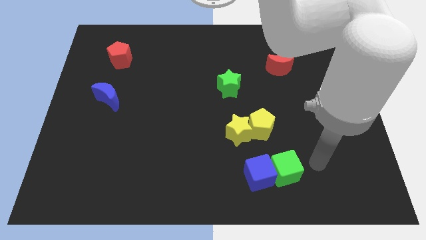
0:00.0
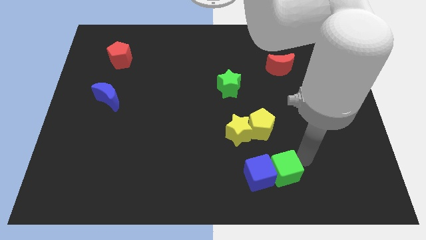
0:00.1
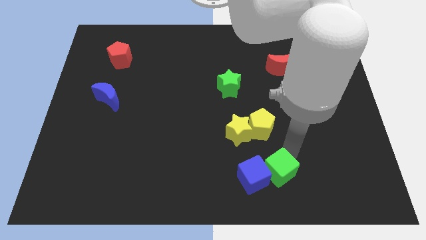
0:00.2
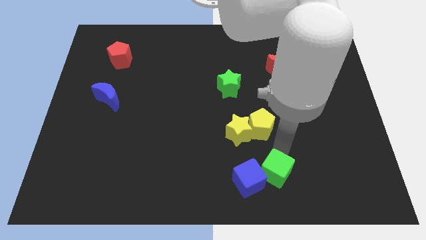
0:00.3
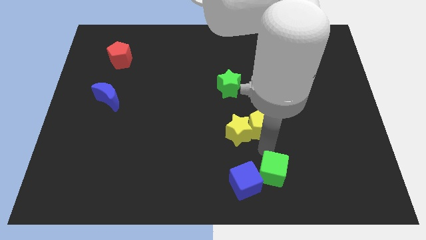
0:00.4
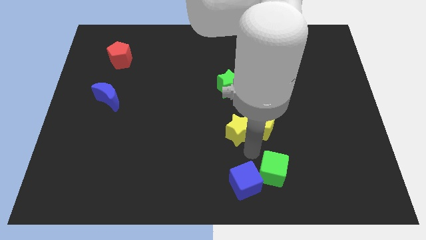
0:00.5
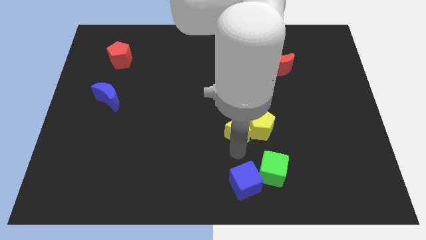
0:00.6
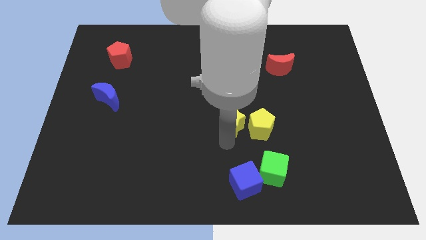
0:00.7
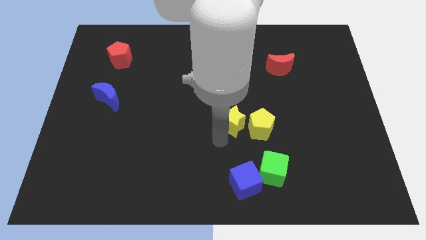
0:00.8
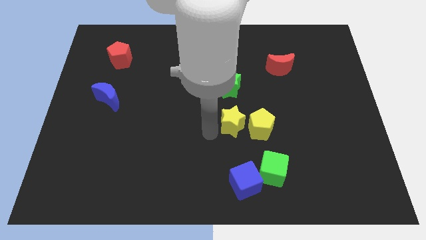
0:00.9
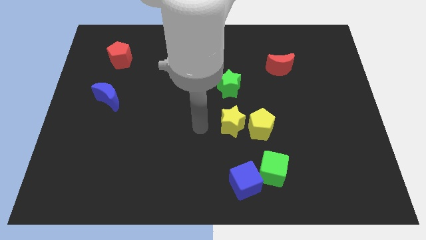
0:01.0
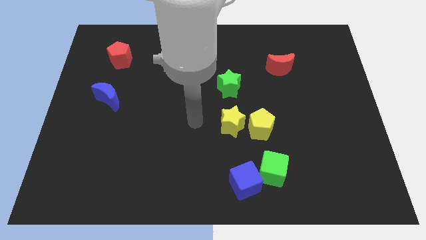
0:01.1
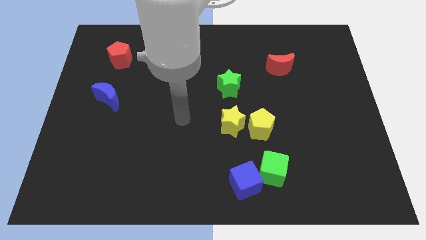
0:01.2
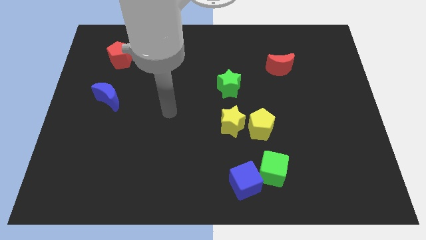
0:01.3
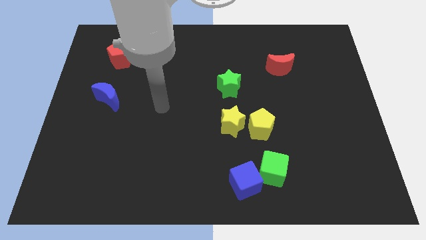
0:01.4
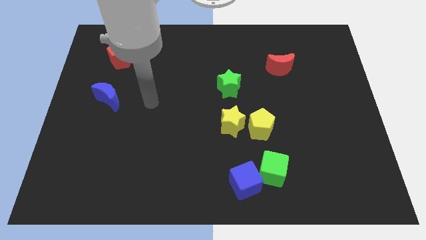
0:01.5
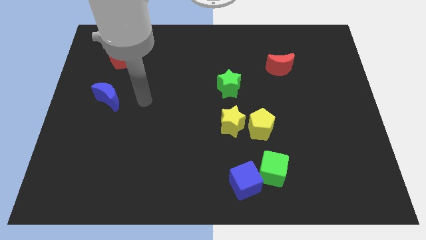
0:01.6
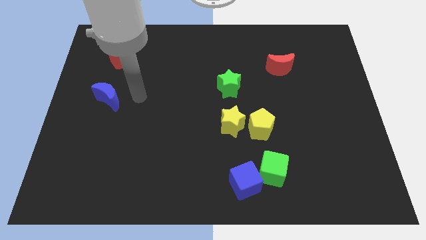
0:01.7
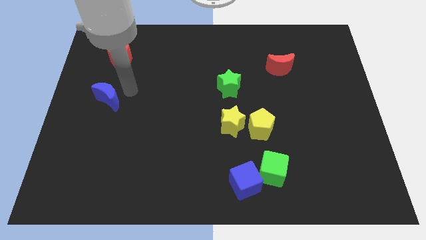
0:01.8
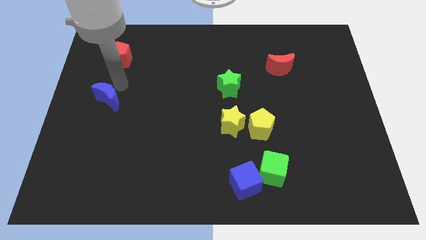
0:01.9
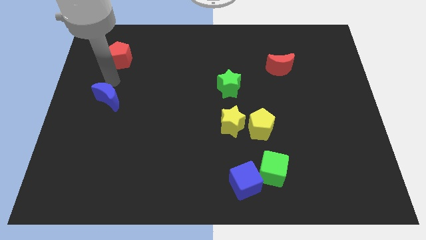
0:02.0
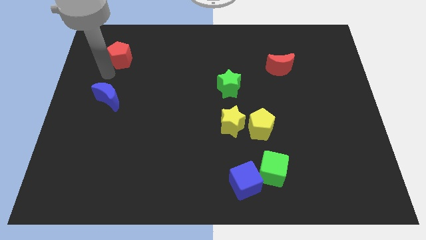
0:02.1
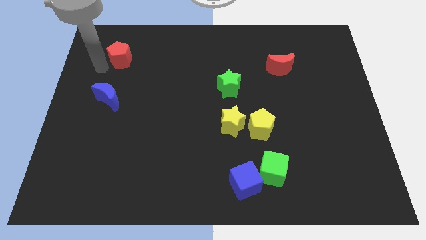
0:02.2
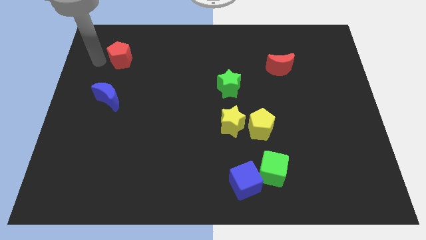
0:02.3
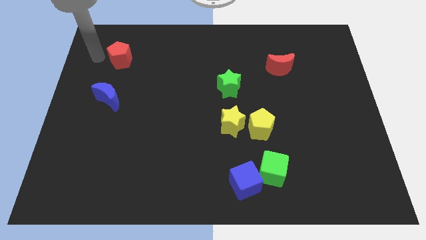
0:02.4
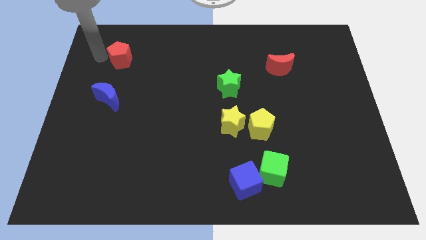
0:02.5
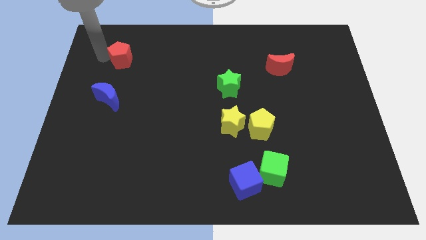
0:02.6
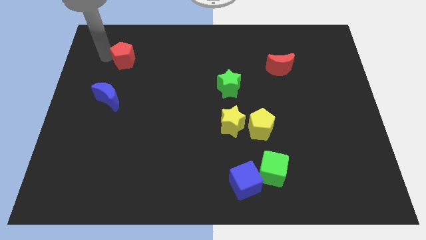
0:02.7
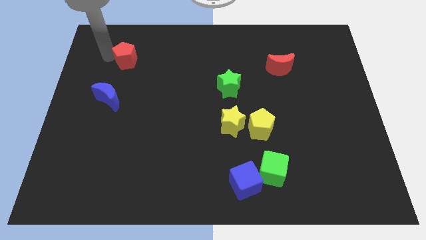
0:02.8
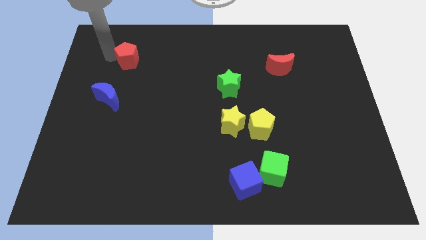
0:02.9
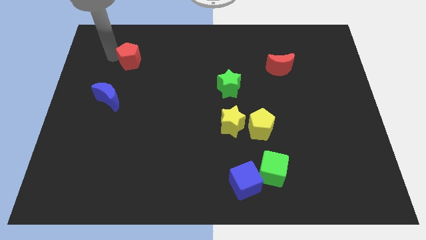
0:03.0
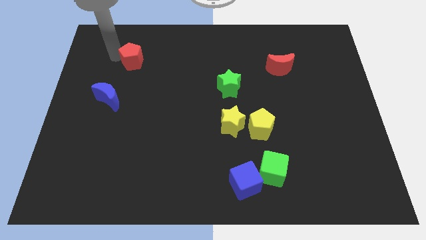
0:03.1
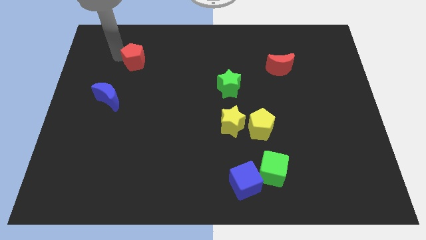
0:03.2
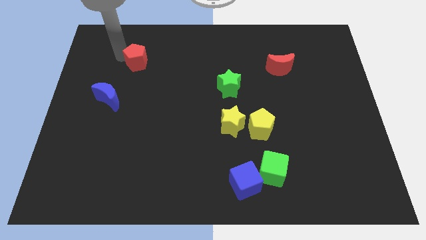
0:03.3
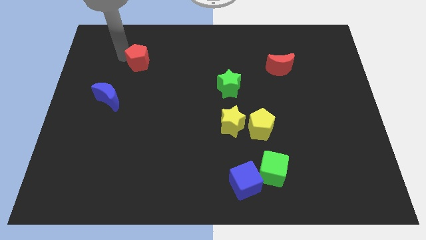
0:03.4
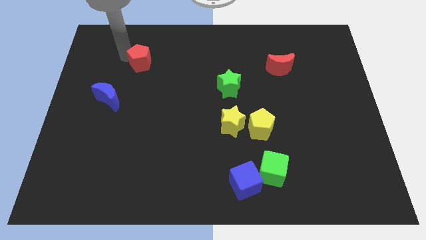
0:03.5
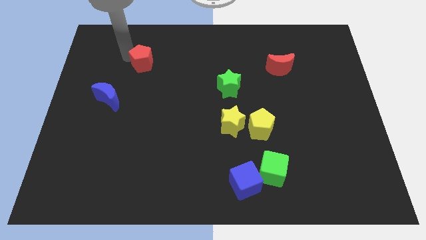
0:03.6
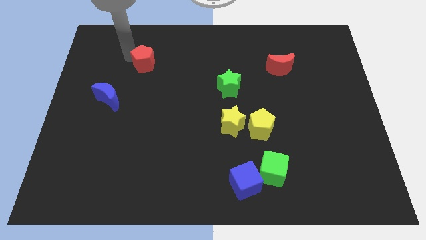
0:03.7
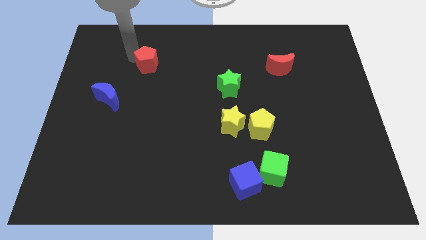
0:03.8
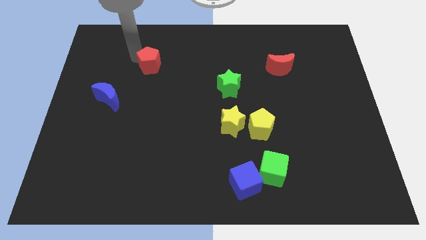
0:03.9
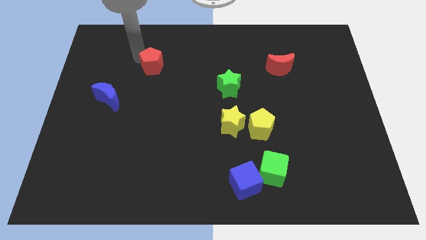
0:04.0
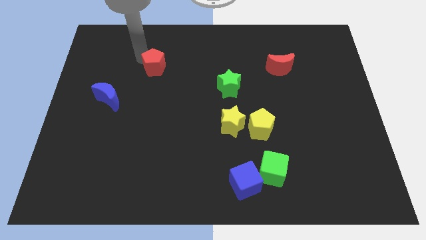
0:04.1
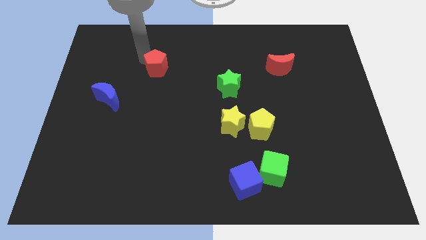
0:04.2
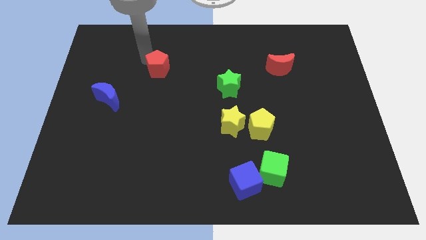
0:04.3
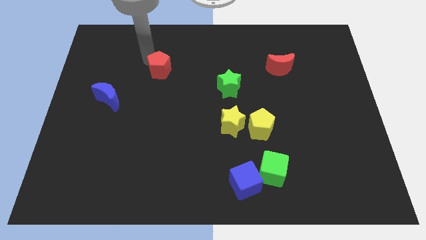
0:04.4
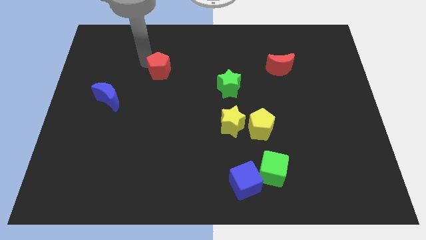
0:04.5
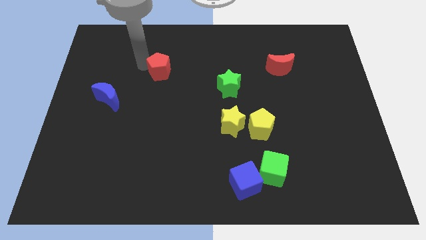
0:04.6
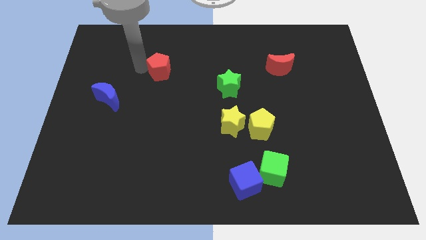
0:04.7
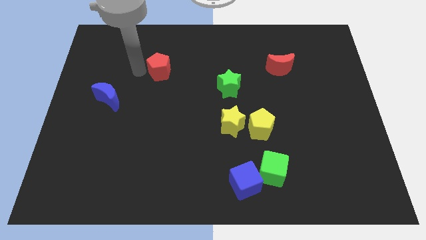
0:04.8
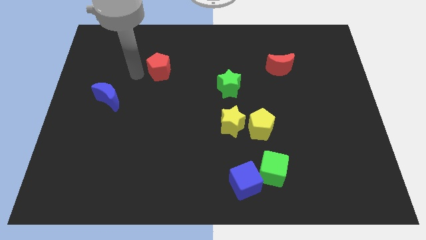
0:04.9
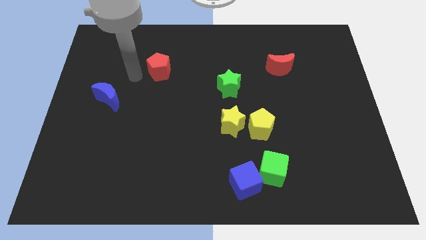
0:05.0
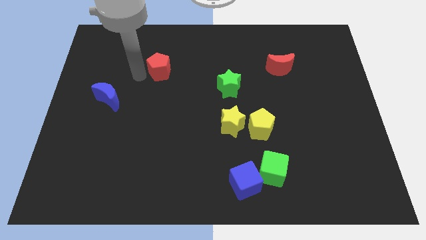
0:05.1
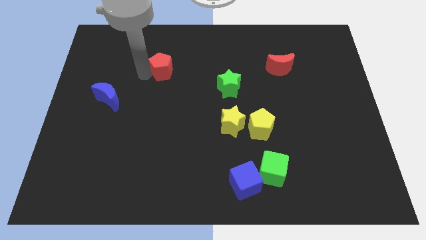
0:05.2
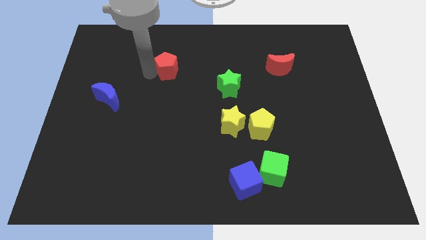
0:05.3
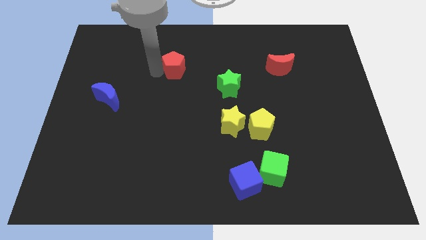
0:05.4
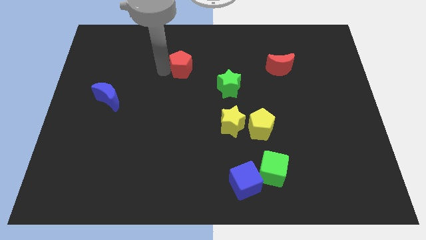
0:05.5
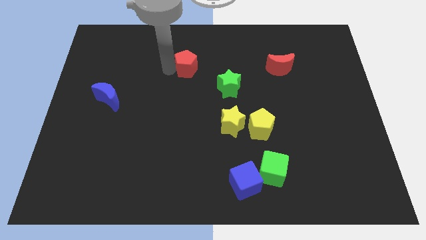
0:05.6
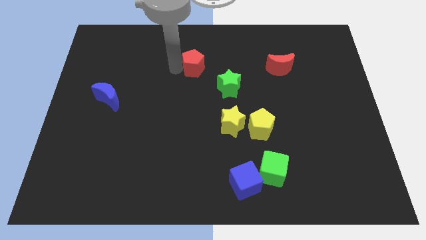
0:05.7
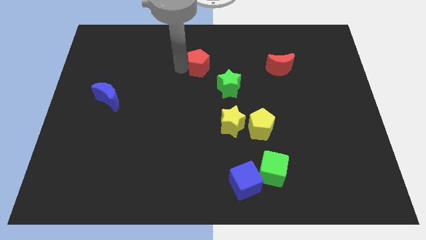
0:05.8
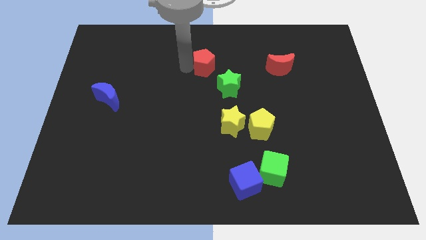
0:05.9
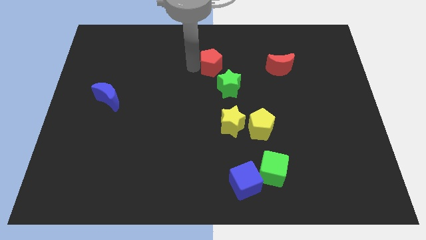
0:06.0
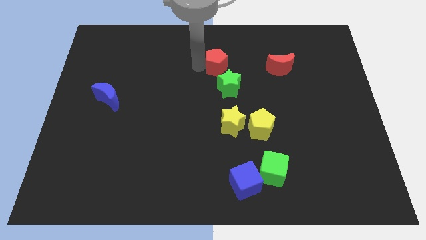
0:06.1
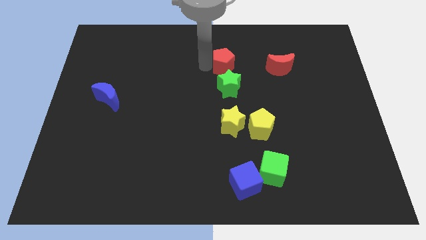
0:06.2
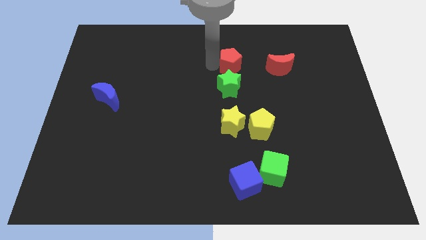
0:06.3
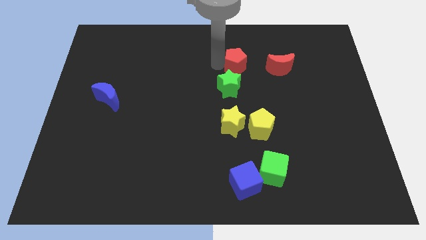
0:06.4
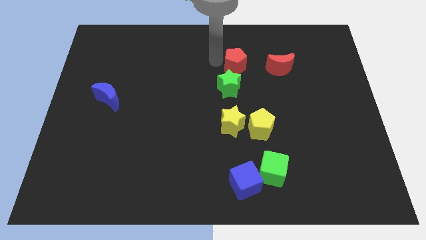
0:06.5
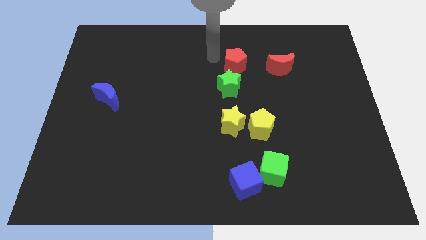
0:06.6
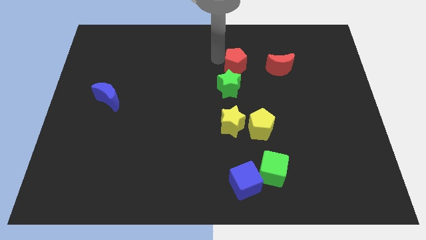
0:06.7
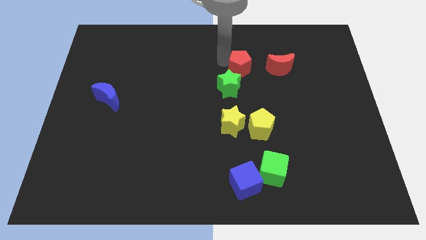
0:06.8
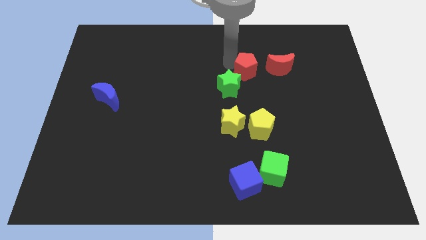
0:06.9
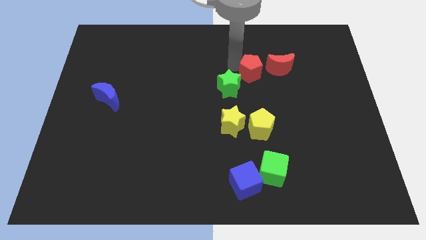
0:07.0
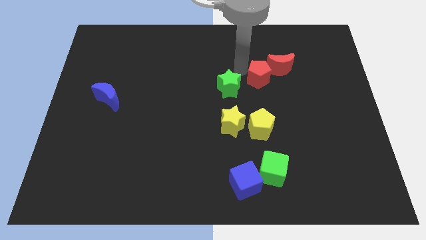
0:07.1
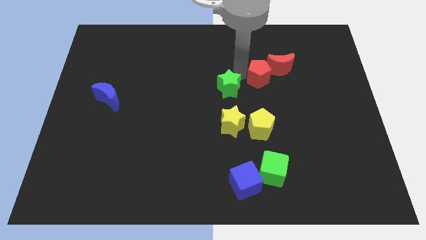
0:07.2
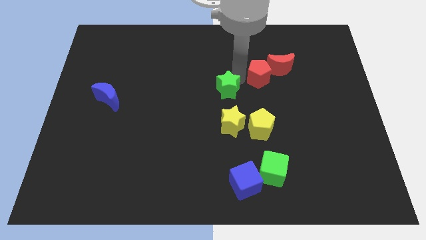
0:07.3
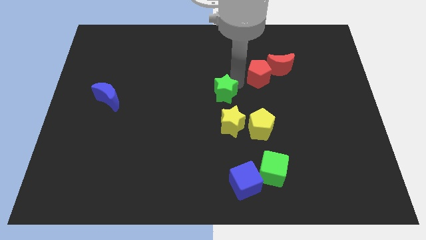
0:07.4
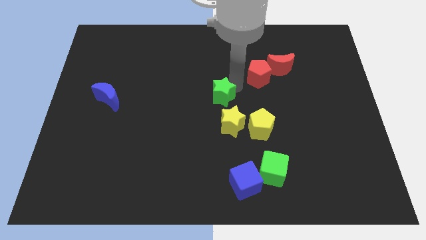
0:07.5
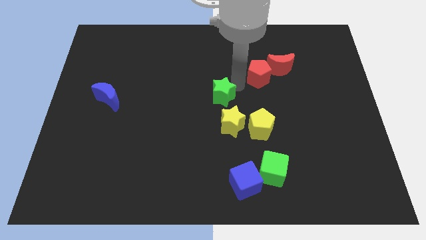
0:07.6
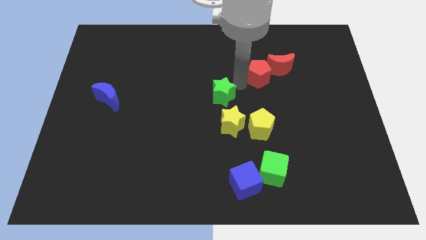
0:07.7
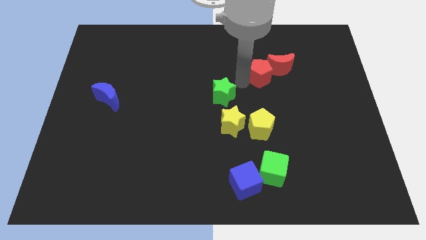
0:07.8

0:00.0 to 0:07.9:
push the red pentagon towards the red moon
